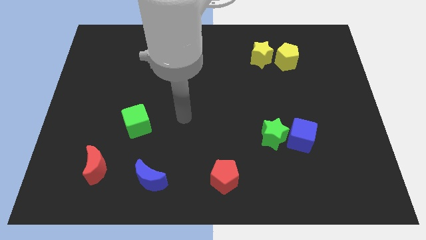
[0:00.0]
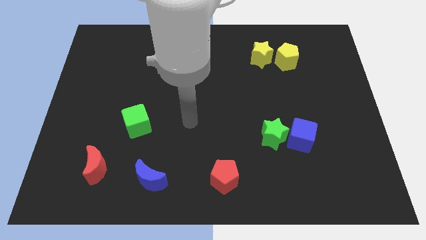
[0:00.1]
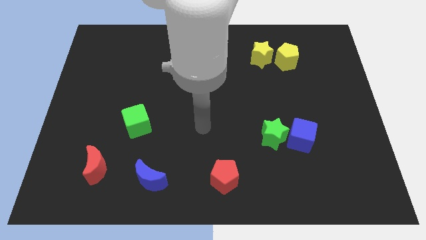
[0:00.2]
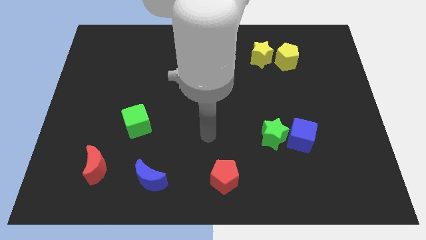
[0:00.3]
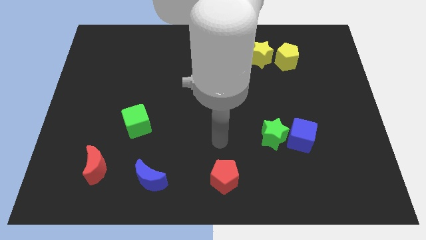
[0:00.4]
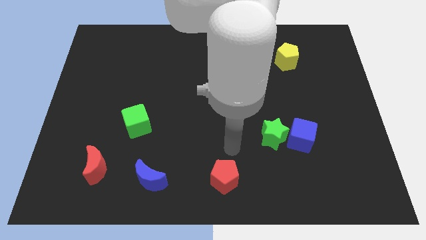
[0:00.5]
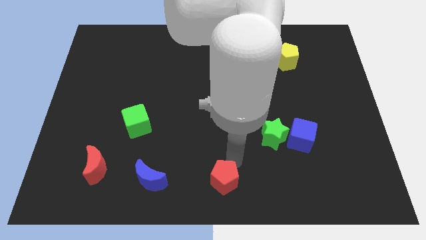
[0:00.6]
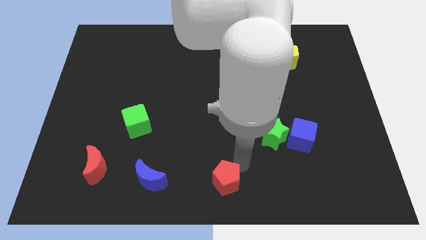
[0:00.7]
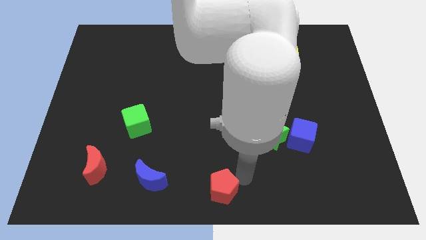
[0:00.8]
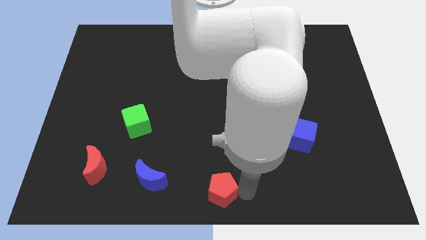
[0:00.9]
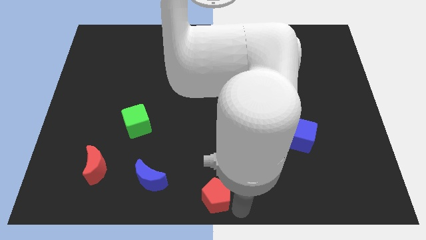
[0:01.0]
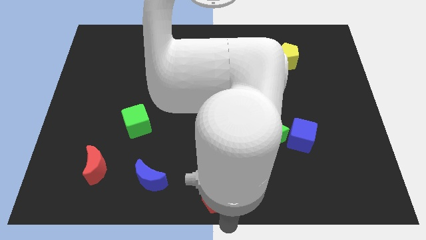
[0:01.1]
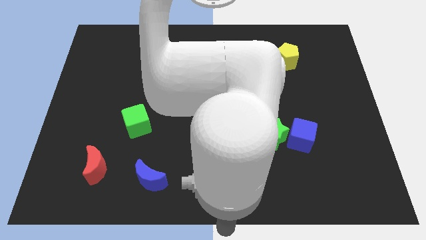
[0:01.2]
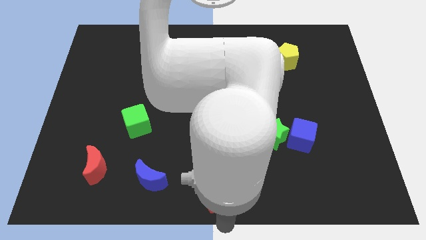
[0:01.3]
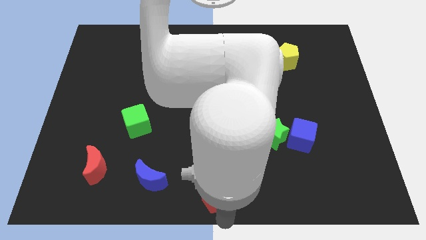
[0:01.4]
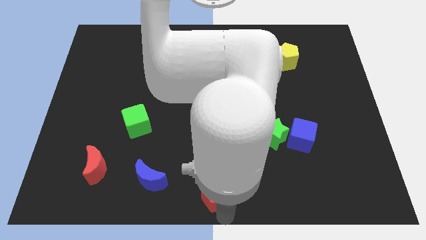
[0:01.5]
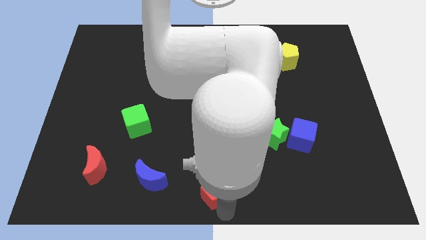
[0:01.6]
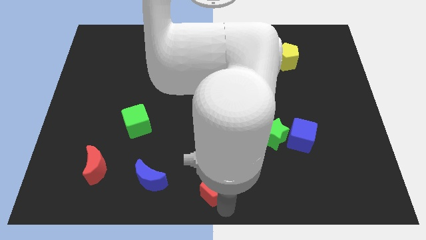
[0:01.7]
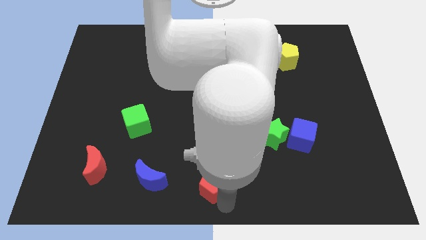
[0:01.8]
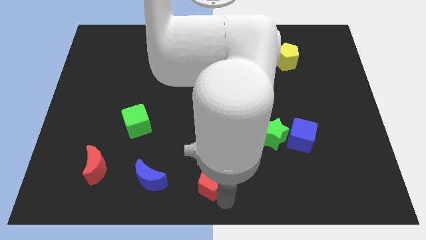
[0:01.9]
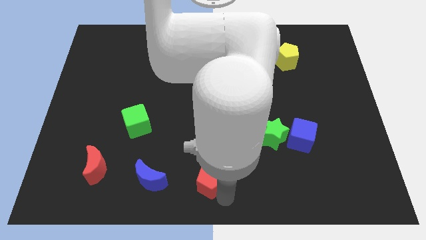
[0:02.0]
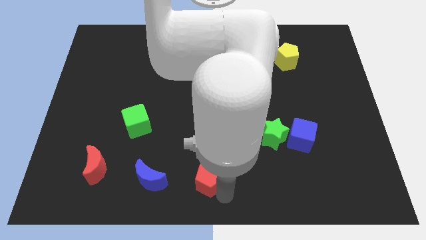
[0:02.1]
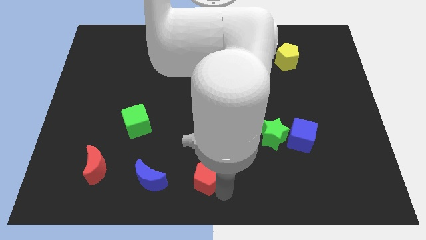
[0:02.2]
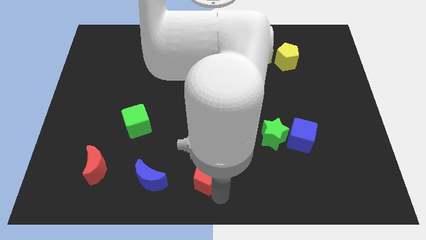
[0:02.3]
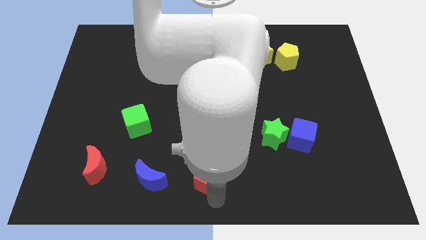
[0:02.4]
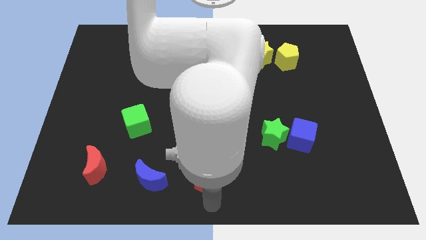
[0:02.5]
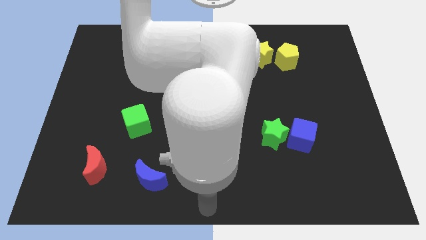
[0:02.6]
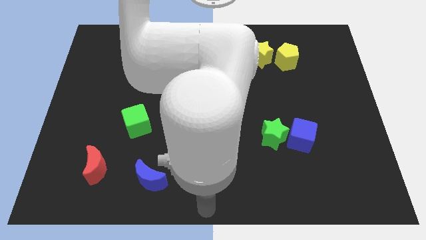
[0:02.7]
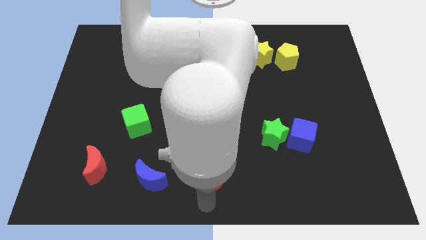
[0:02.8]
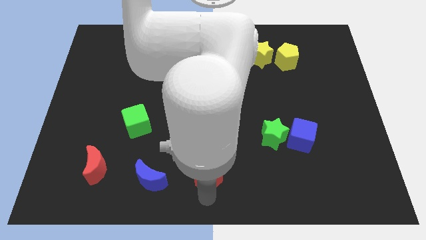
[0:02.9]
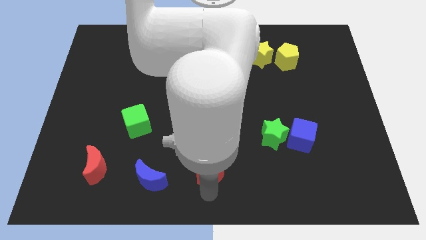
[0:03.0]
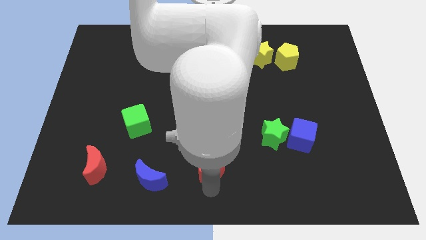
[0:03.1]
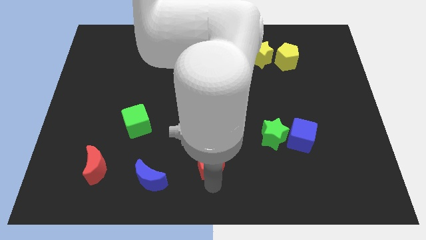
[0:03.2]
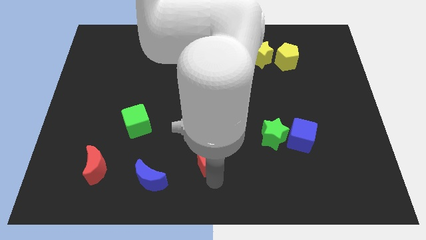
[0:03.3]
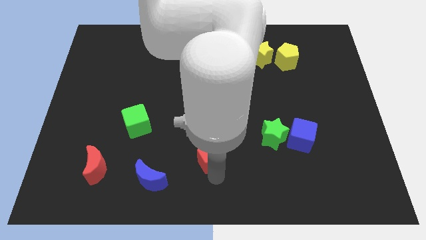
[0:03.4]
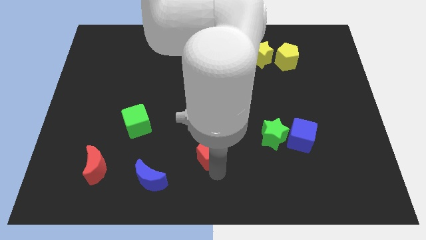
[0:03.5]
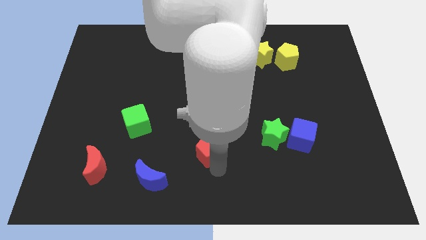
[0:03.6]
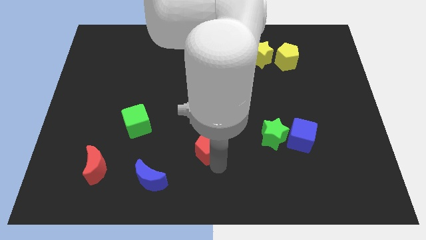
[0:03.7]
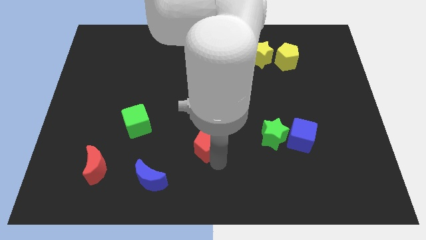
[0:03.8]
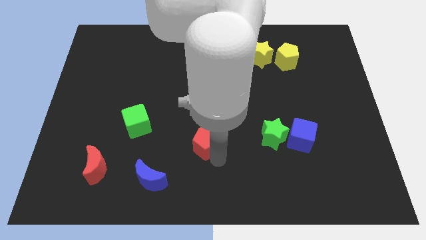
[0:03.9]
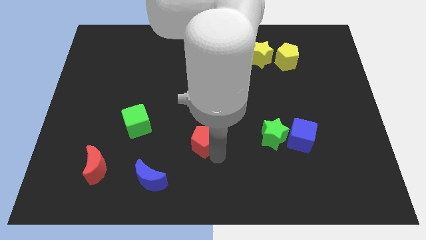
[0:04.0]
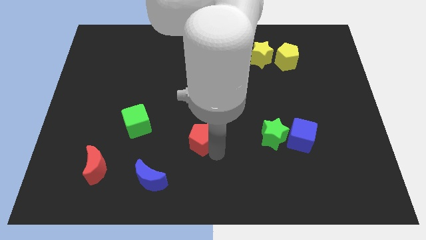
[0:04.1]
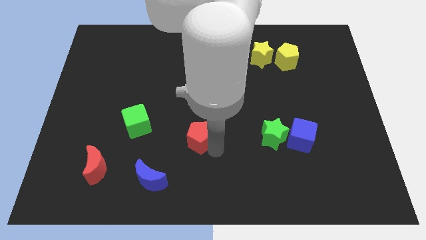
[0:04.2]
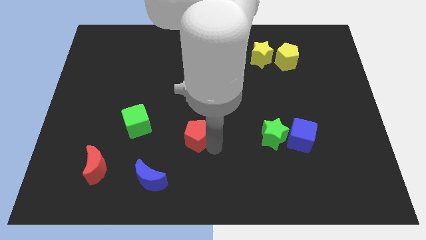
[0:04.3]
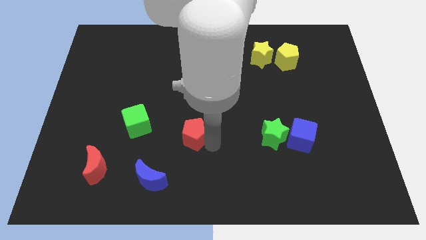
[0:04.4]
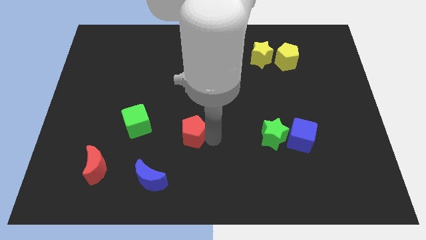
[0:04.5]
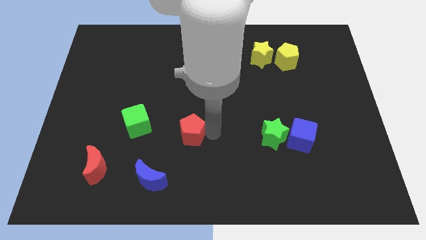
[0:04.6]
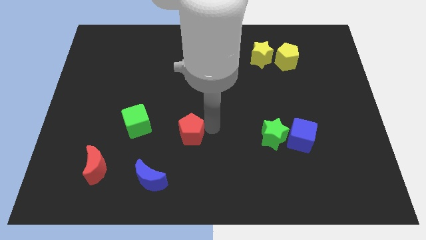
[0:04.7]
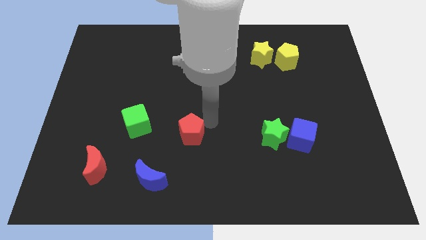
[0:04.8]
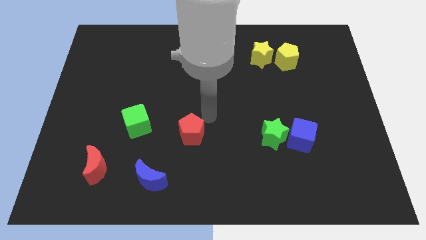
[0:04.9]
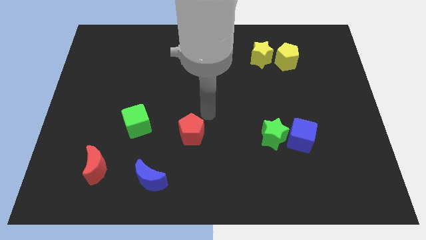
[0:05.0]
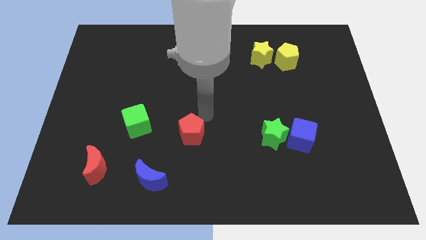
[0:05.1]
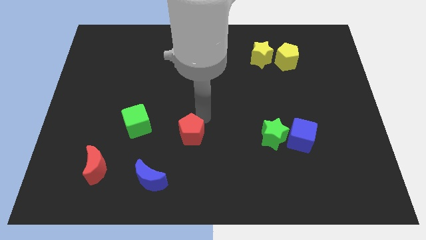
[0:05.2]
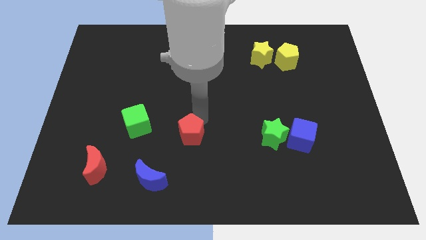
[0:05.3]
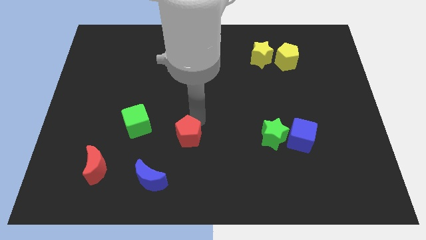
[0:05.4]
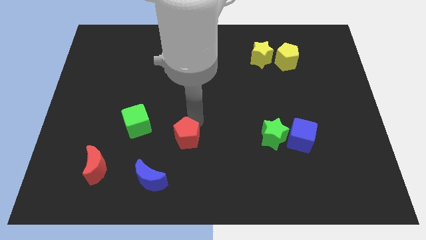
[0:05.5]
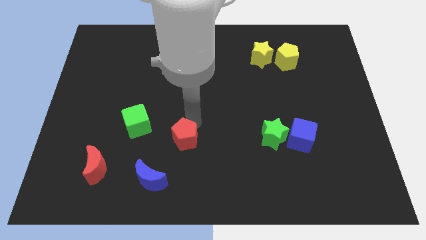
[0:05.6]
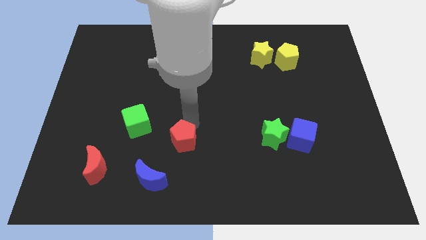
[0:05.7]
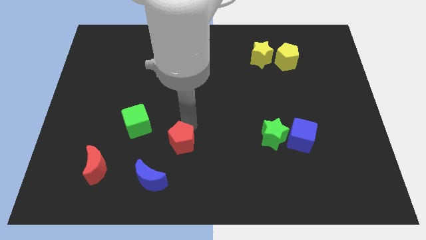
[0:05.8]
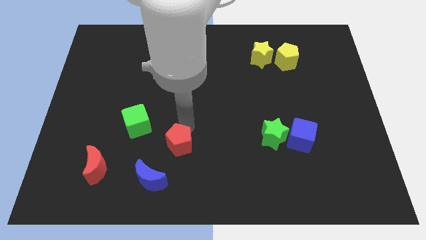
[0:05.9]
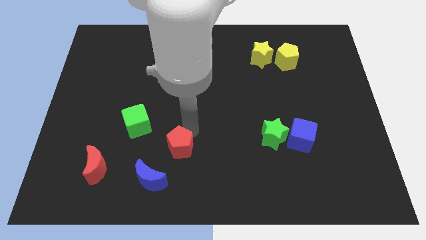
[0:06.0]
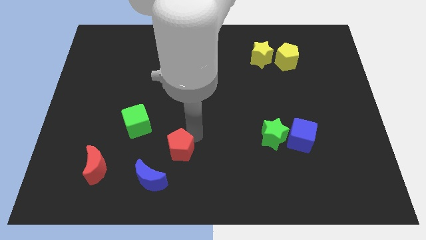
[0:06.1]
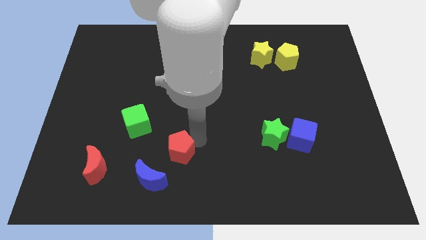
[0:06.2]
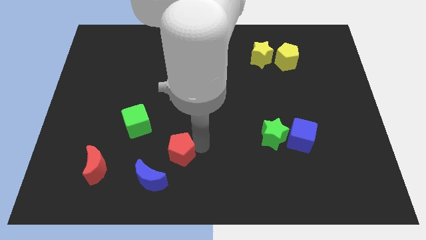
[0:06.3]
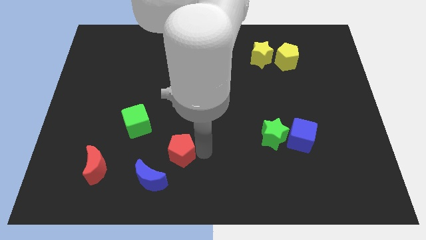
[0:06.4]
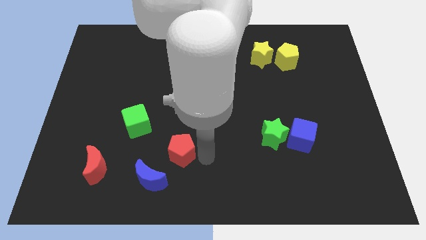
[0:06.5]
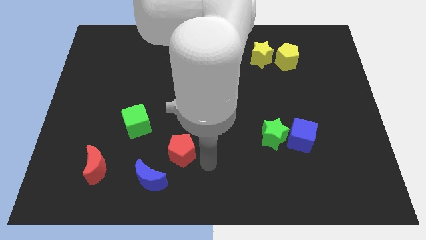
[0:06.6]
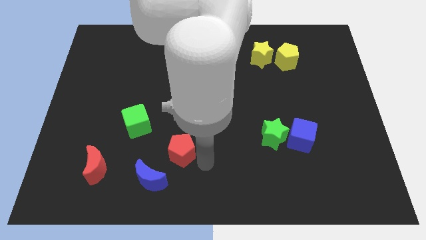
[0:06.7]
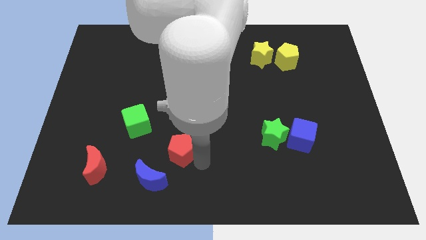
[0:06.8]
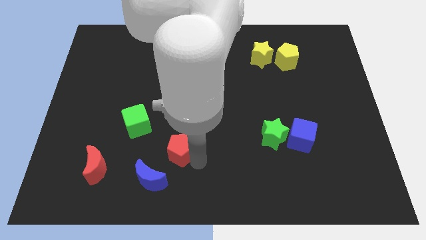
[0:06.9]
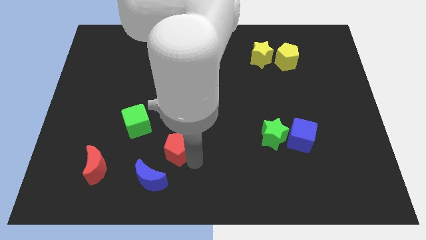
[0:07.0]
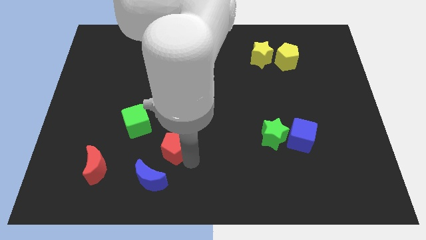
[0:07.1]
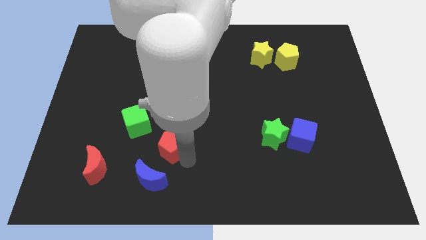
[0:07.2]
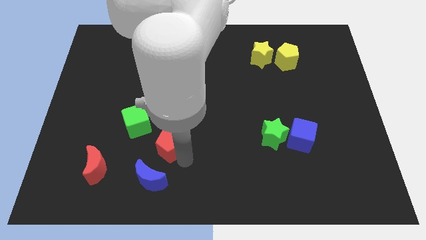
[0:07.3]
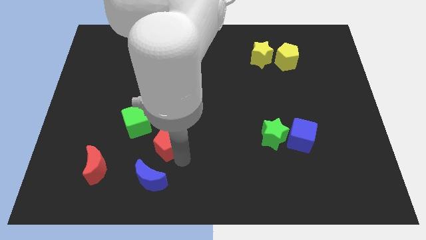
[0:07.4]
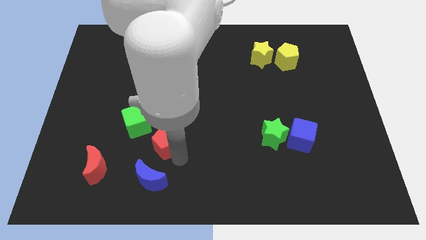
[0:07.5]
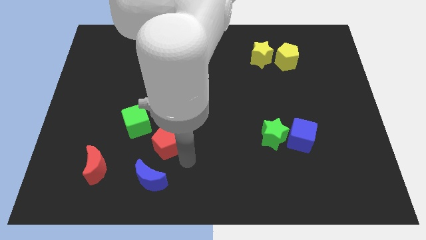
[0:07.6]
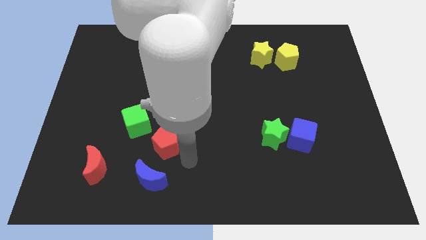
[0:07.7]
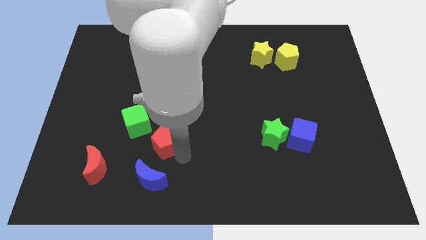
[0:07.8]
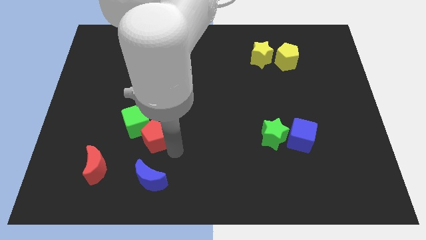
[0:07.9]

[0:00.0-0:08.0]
push the red pentagon towards the green cube

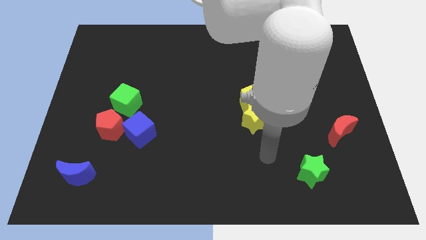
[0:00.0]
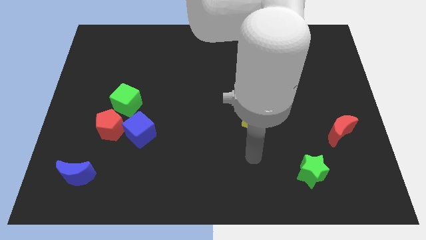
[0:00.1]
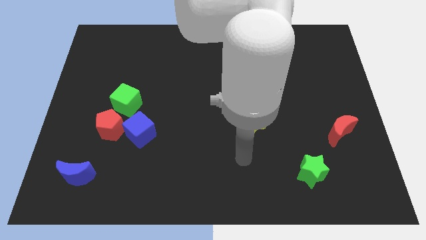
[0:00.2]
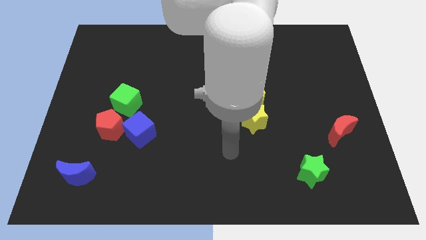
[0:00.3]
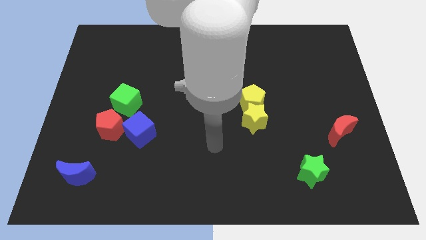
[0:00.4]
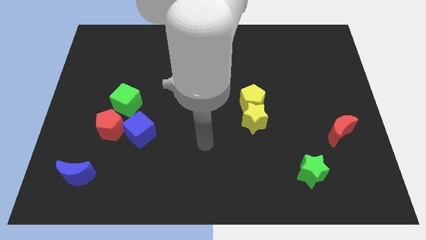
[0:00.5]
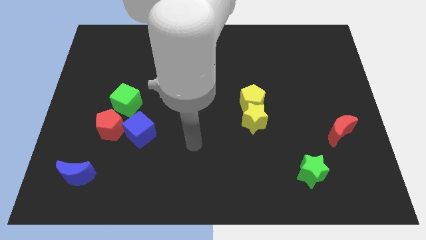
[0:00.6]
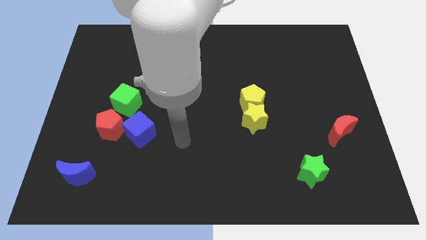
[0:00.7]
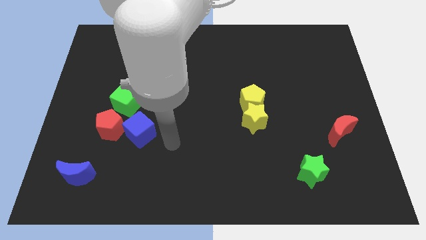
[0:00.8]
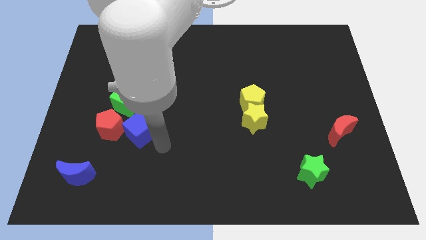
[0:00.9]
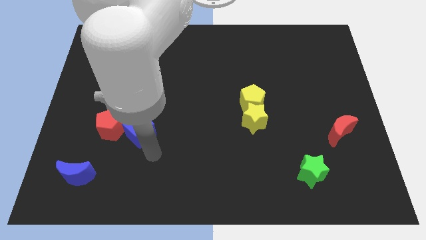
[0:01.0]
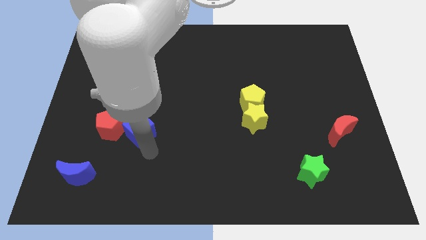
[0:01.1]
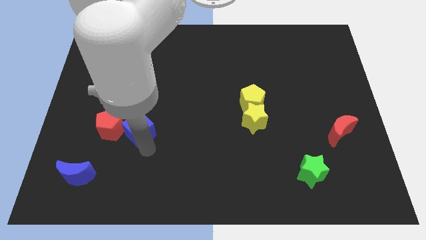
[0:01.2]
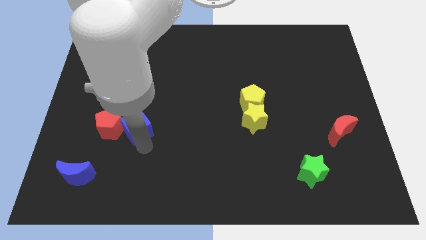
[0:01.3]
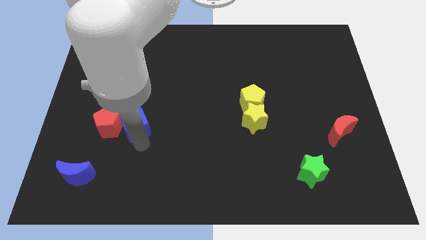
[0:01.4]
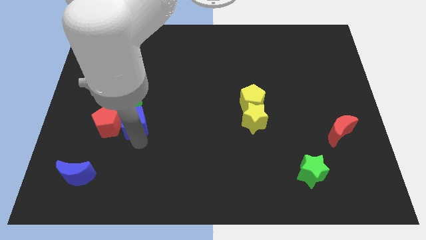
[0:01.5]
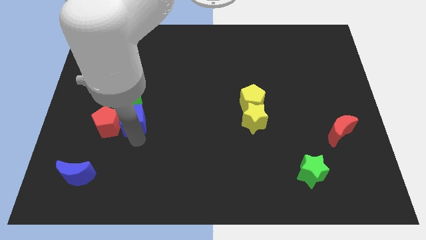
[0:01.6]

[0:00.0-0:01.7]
put the blue cube towards the green cube
